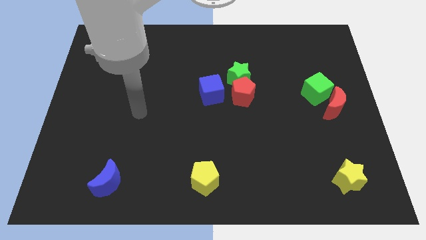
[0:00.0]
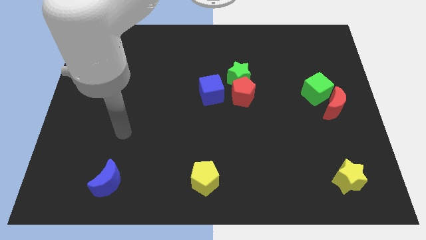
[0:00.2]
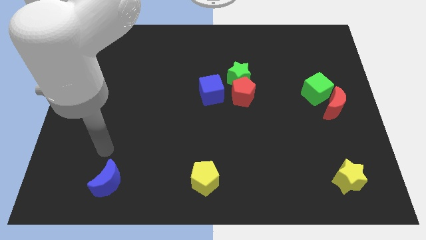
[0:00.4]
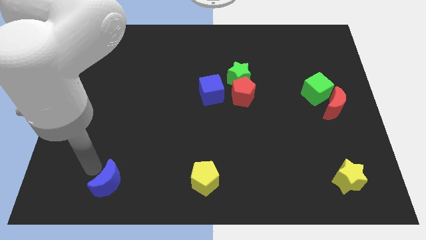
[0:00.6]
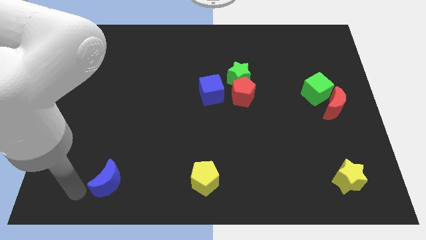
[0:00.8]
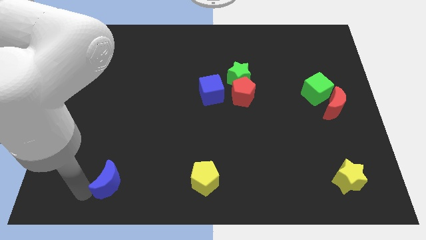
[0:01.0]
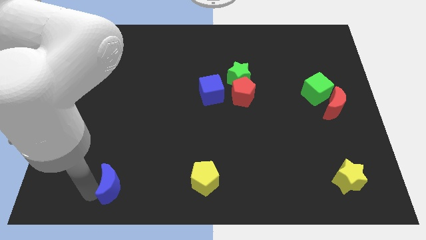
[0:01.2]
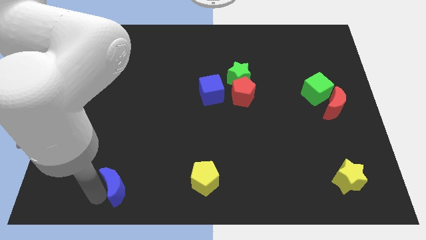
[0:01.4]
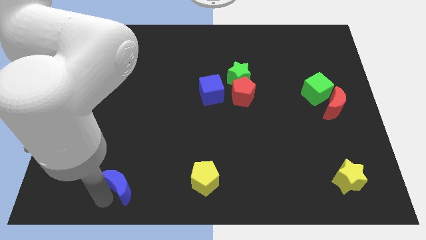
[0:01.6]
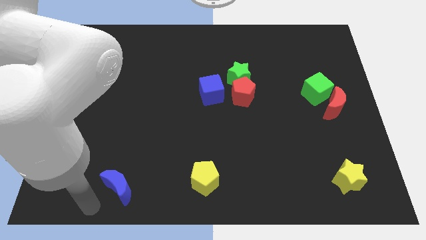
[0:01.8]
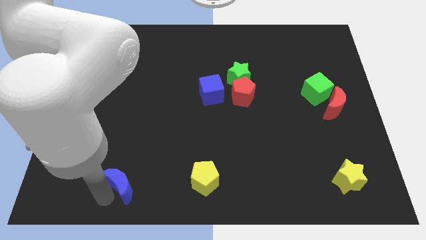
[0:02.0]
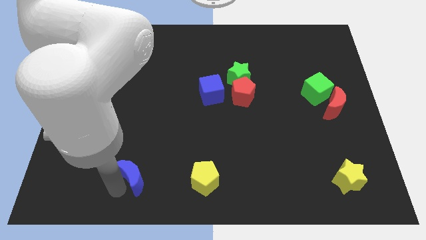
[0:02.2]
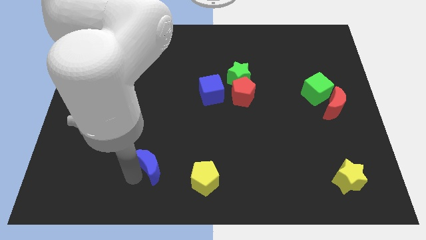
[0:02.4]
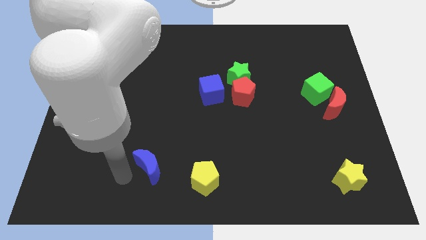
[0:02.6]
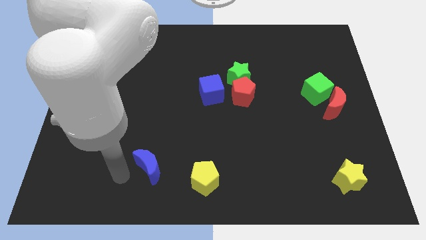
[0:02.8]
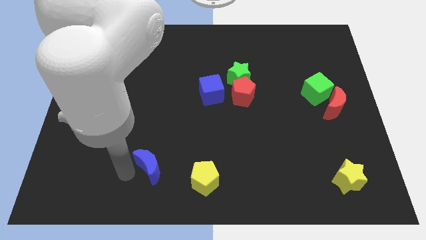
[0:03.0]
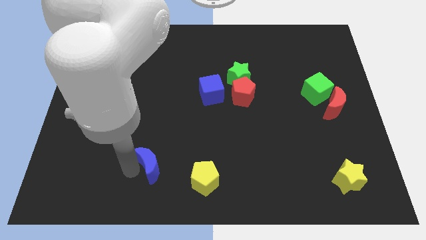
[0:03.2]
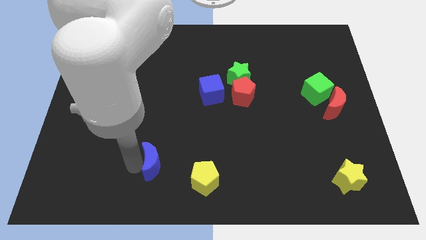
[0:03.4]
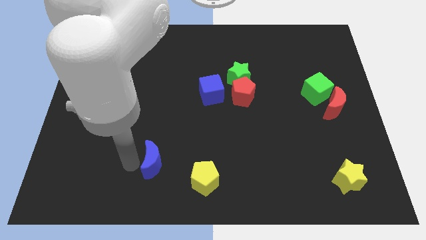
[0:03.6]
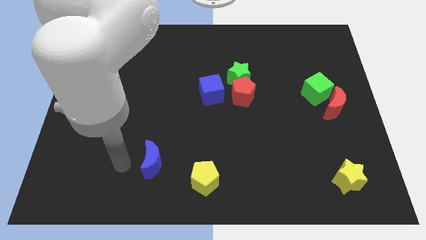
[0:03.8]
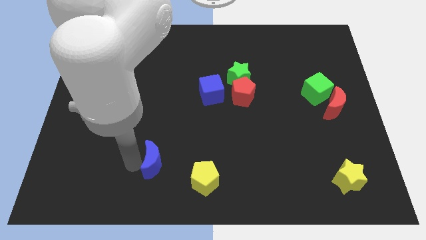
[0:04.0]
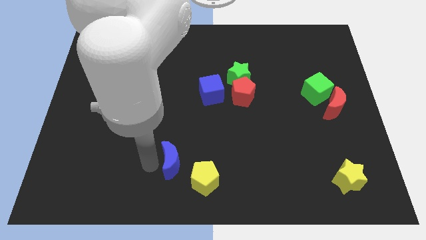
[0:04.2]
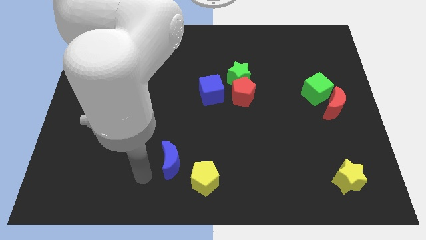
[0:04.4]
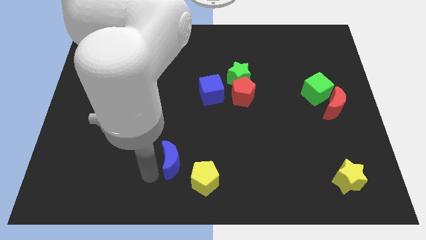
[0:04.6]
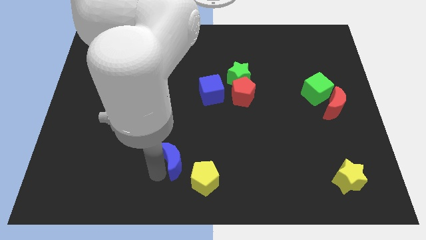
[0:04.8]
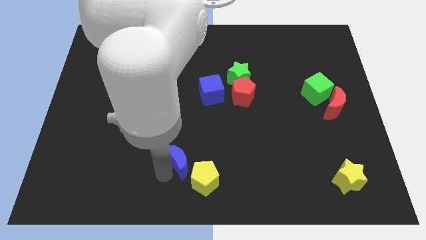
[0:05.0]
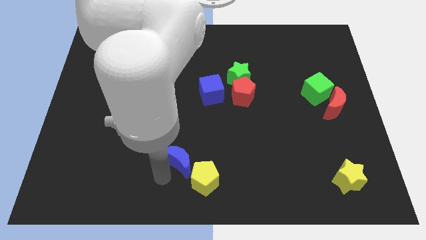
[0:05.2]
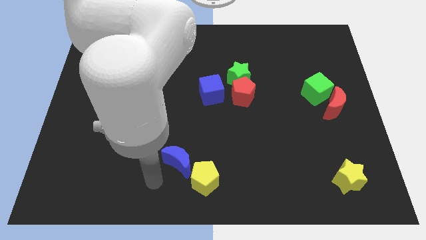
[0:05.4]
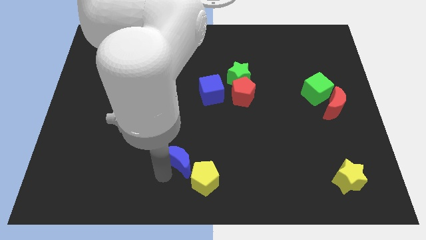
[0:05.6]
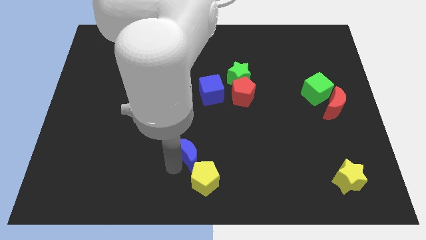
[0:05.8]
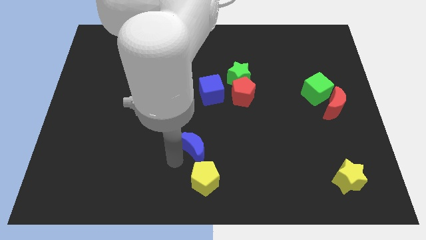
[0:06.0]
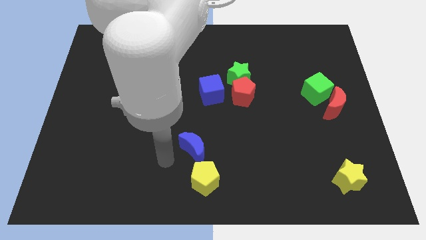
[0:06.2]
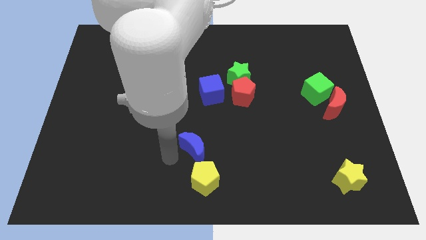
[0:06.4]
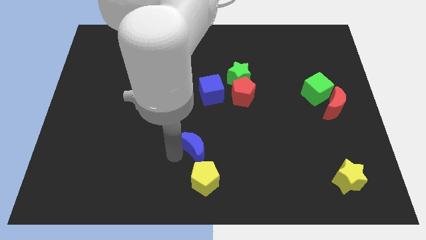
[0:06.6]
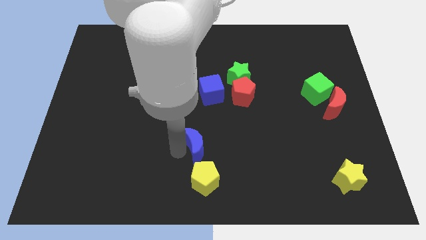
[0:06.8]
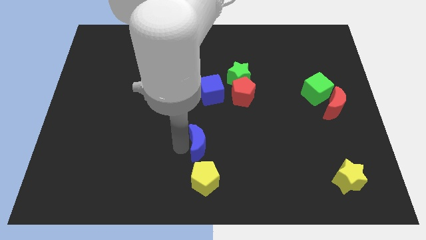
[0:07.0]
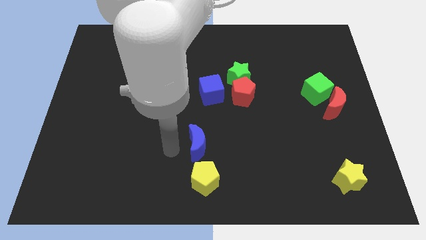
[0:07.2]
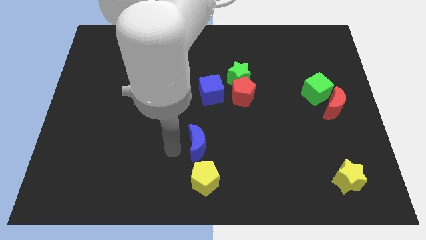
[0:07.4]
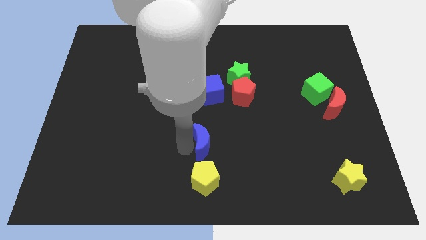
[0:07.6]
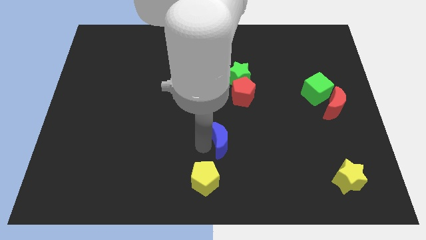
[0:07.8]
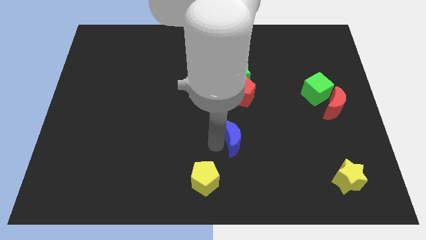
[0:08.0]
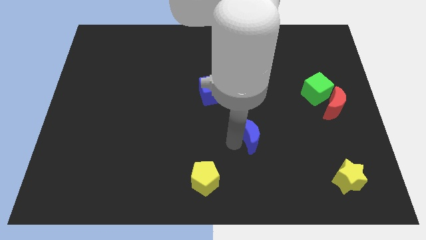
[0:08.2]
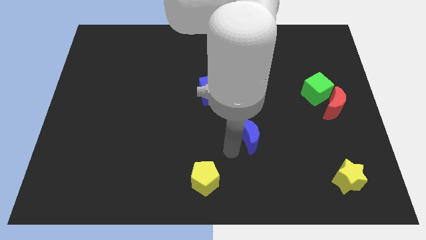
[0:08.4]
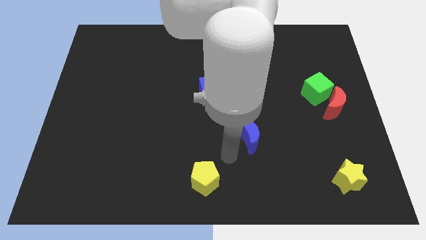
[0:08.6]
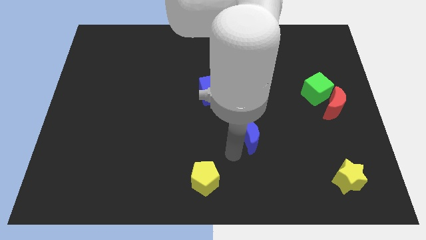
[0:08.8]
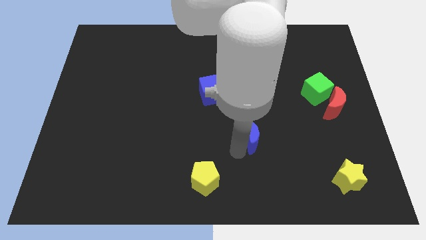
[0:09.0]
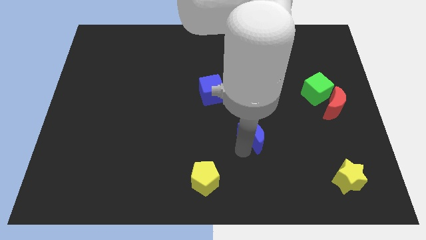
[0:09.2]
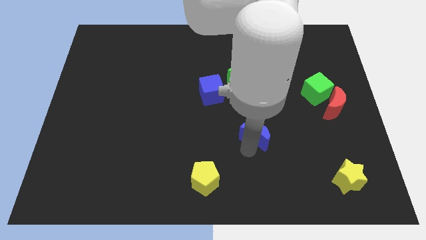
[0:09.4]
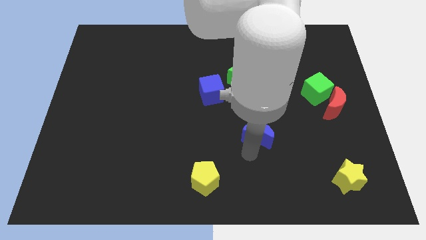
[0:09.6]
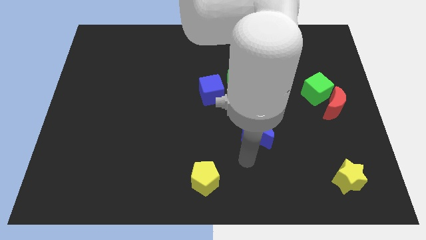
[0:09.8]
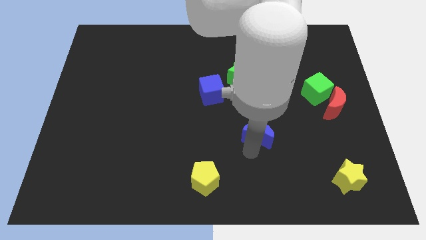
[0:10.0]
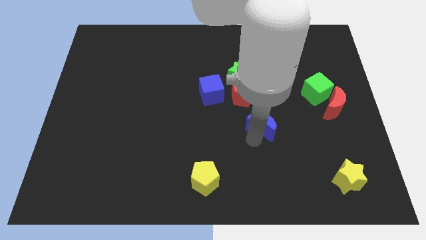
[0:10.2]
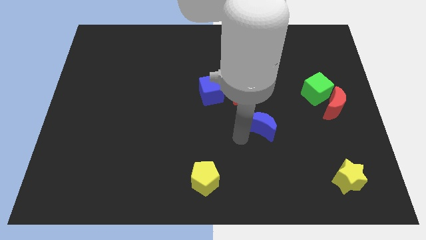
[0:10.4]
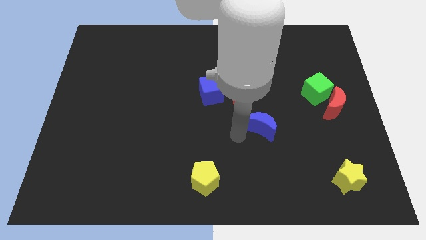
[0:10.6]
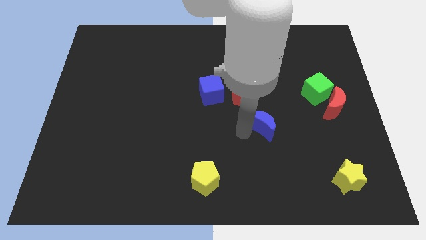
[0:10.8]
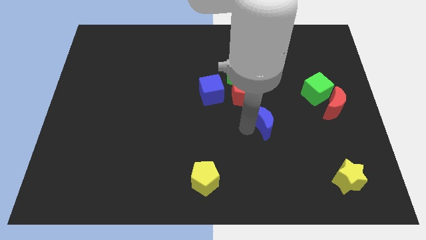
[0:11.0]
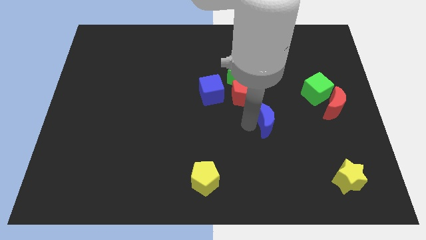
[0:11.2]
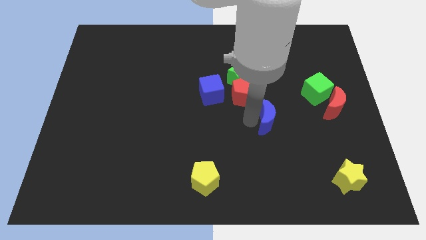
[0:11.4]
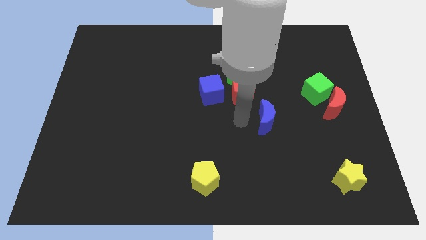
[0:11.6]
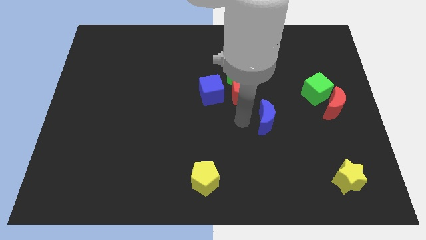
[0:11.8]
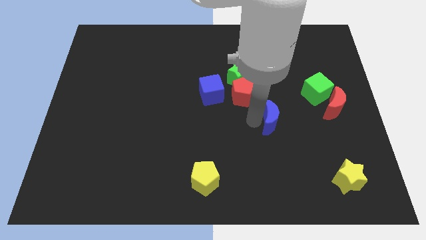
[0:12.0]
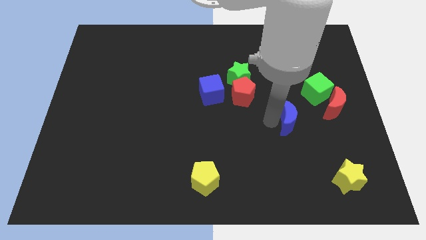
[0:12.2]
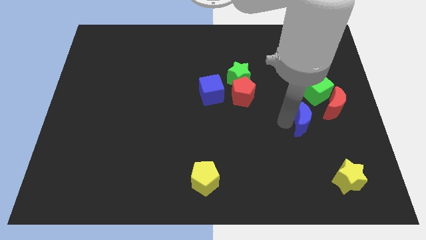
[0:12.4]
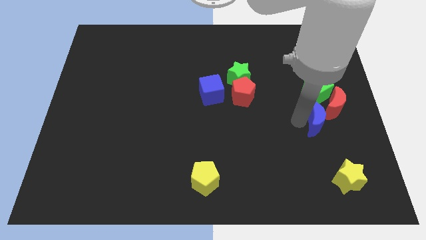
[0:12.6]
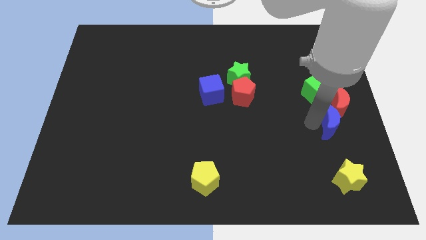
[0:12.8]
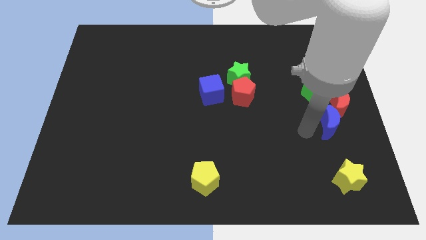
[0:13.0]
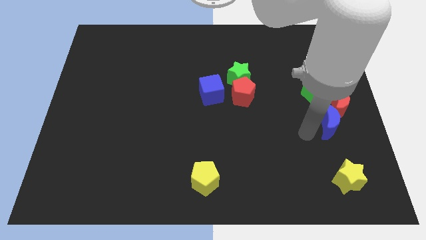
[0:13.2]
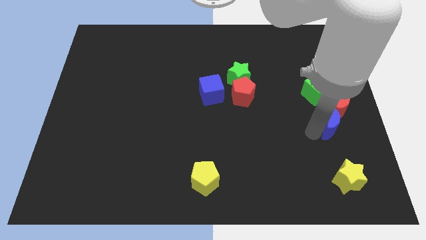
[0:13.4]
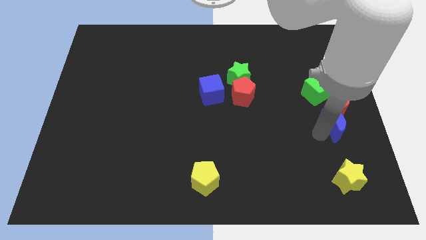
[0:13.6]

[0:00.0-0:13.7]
put the blue moon to the right side
